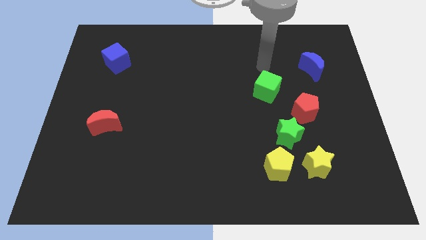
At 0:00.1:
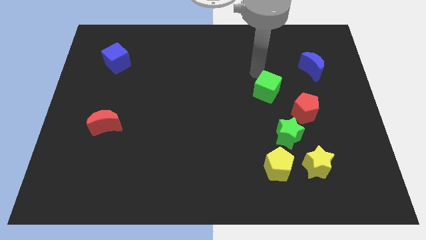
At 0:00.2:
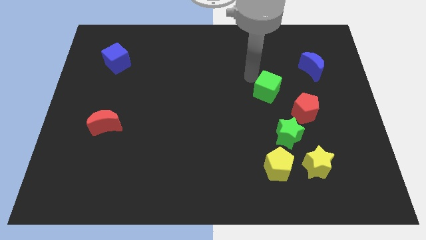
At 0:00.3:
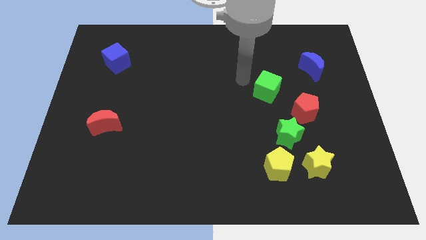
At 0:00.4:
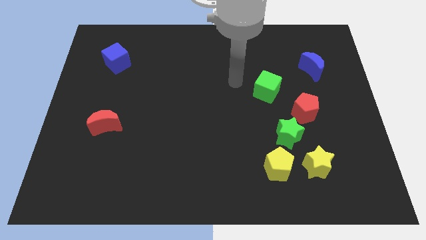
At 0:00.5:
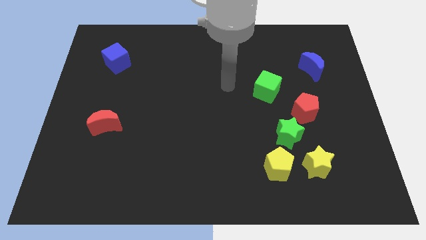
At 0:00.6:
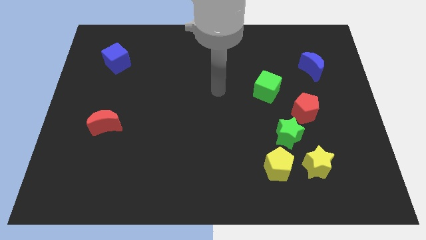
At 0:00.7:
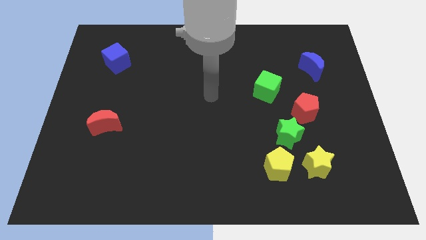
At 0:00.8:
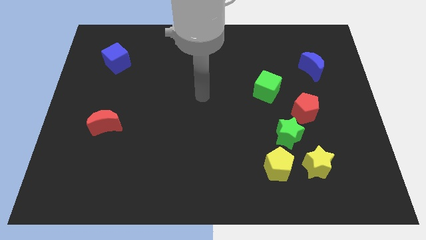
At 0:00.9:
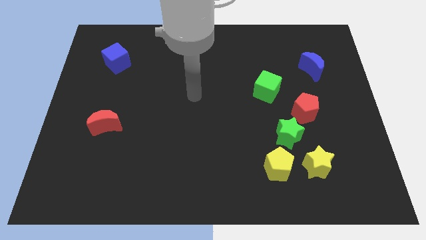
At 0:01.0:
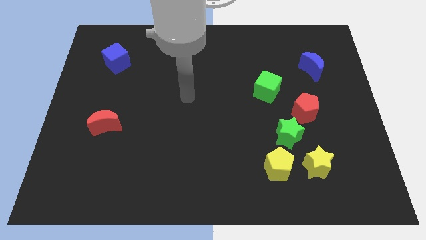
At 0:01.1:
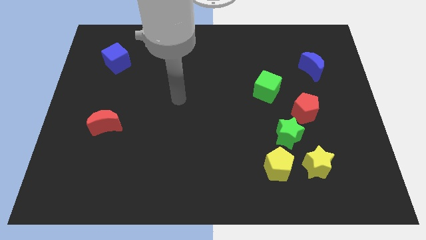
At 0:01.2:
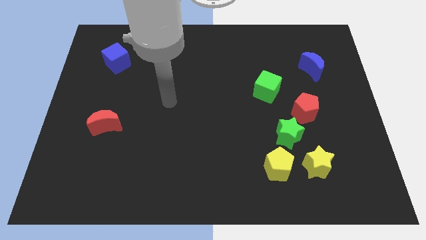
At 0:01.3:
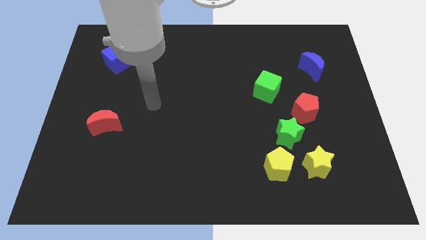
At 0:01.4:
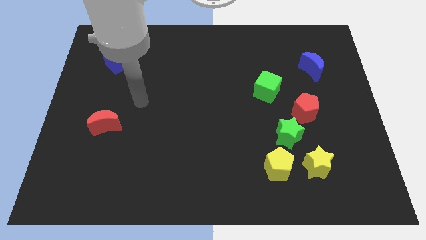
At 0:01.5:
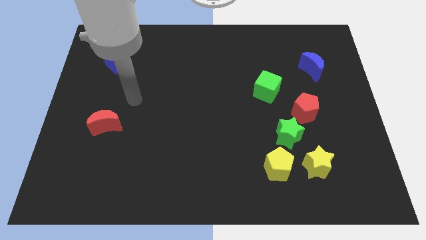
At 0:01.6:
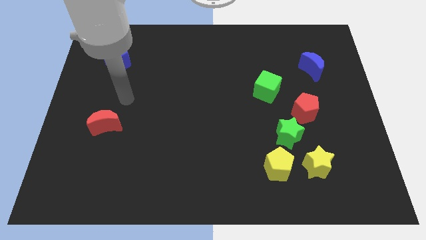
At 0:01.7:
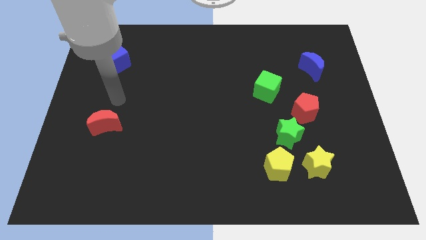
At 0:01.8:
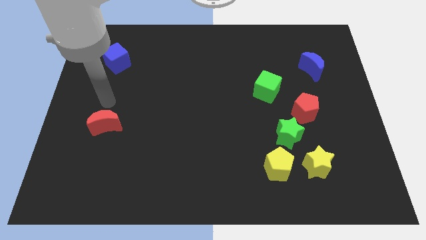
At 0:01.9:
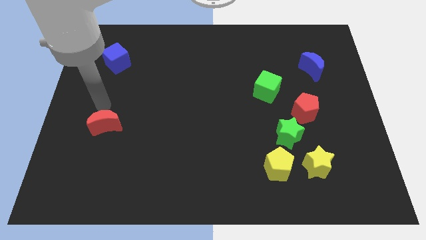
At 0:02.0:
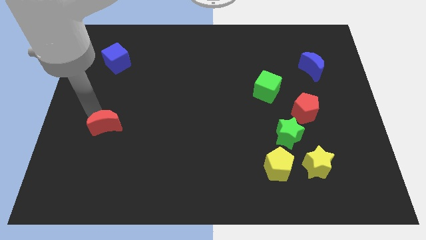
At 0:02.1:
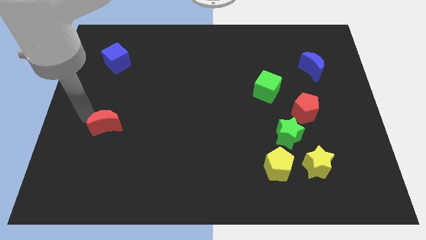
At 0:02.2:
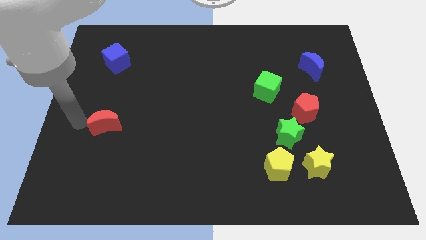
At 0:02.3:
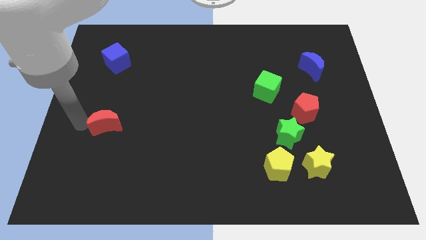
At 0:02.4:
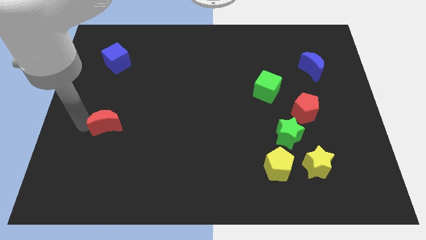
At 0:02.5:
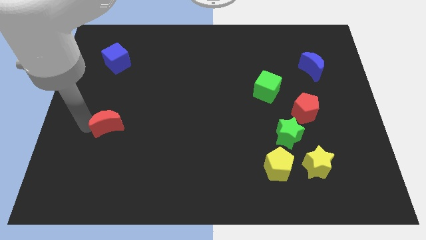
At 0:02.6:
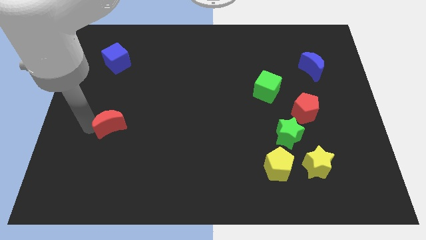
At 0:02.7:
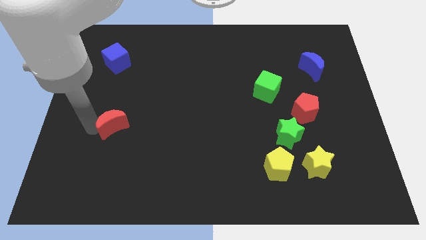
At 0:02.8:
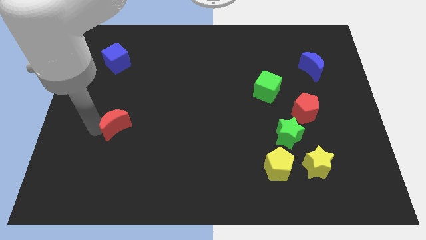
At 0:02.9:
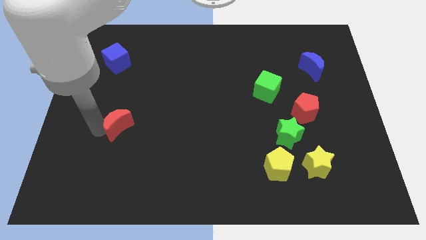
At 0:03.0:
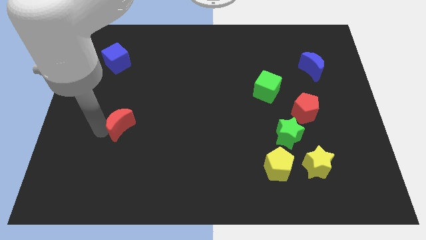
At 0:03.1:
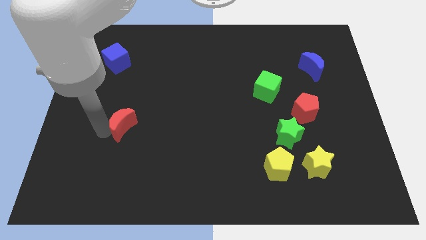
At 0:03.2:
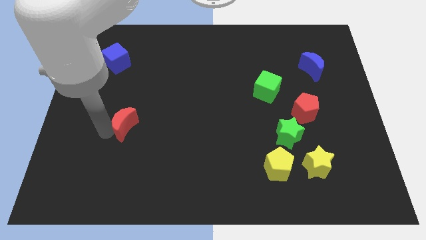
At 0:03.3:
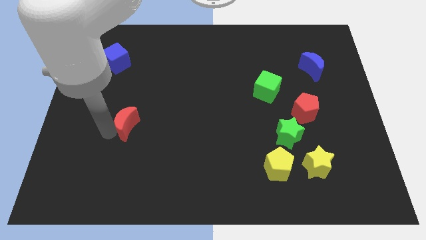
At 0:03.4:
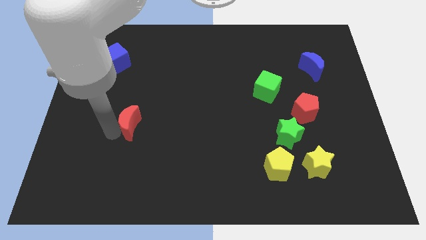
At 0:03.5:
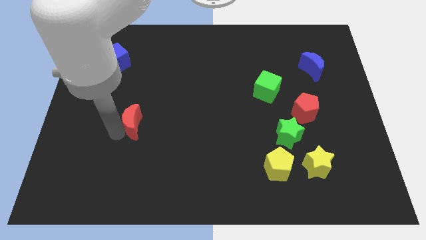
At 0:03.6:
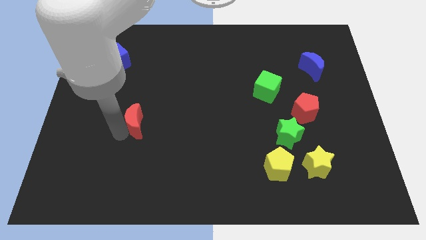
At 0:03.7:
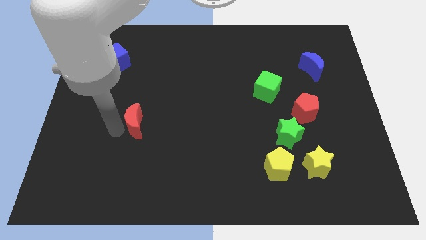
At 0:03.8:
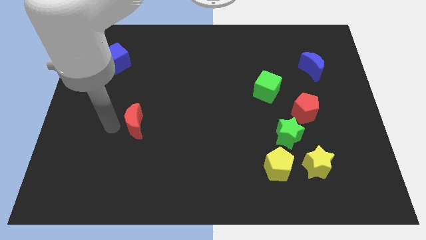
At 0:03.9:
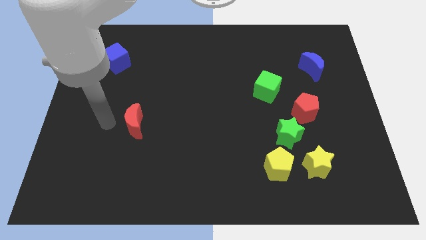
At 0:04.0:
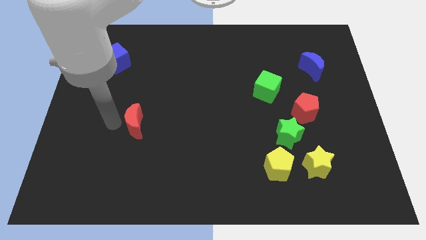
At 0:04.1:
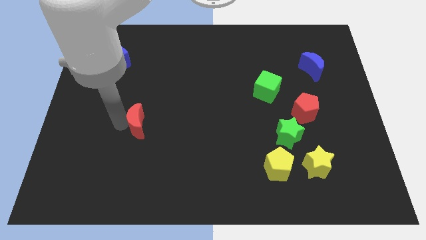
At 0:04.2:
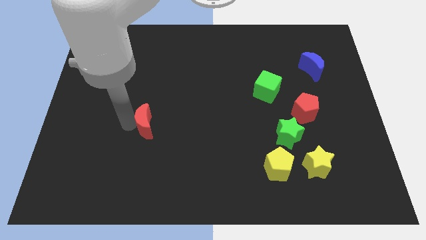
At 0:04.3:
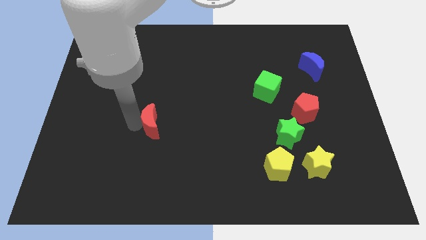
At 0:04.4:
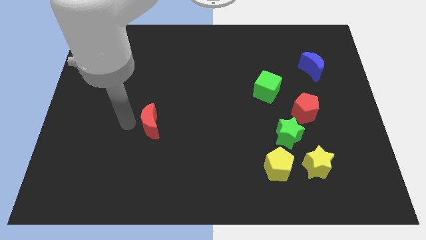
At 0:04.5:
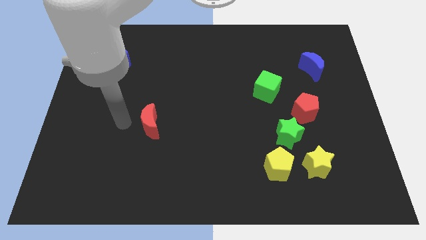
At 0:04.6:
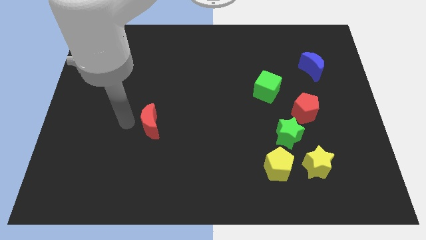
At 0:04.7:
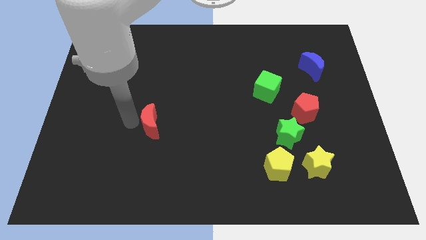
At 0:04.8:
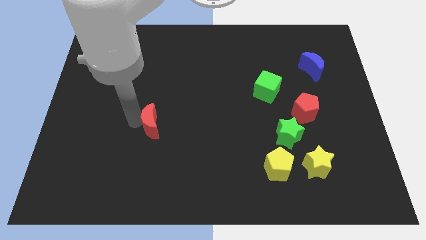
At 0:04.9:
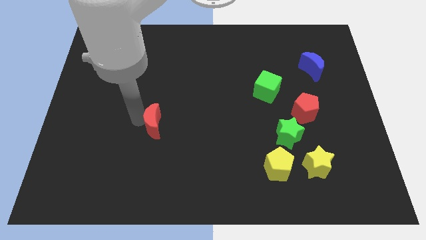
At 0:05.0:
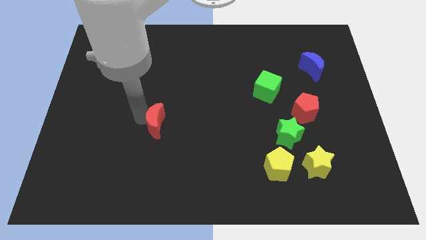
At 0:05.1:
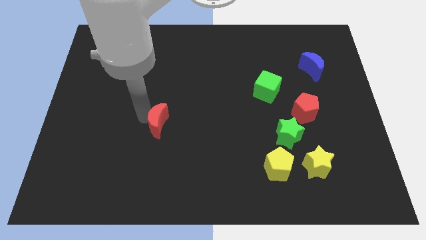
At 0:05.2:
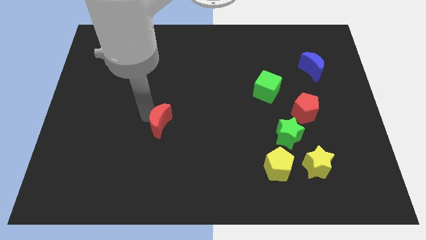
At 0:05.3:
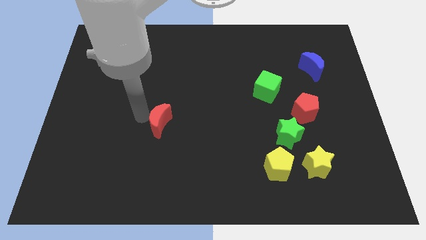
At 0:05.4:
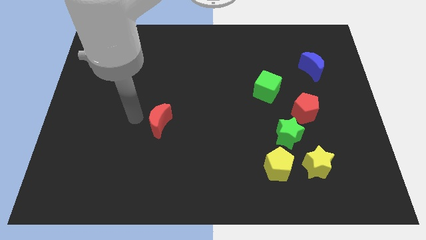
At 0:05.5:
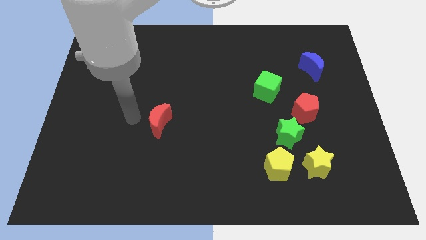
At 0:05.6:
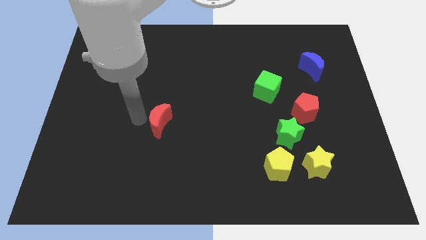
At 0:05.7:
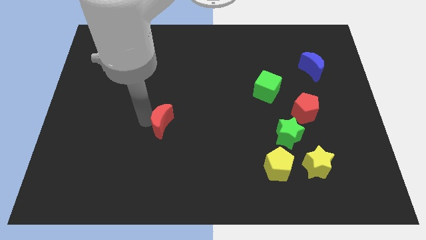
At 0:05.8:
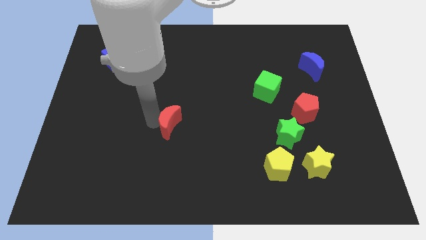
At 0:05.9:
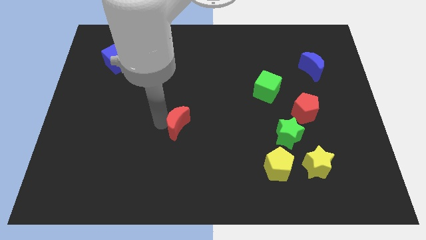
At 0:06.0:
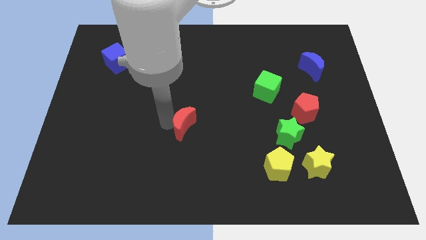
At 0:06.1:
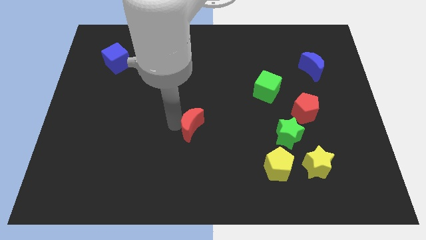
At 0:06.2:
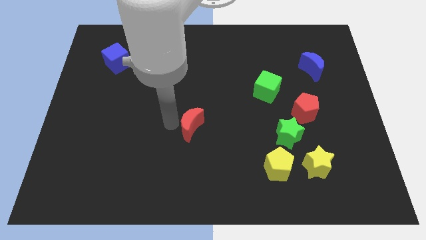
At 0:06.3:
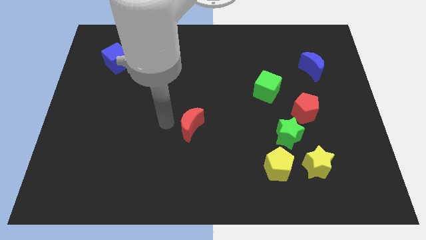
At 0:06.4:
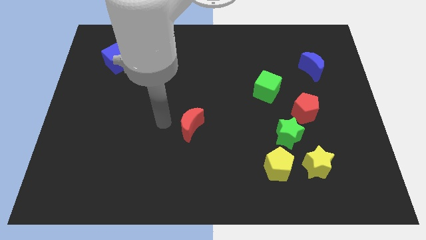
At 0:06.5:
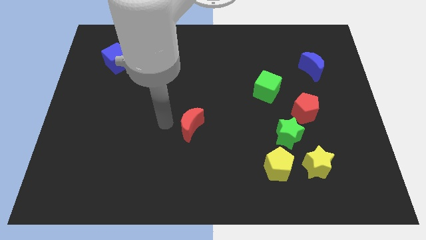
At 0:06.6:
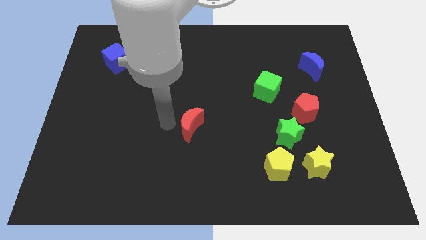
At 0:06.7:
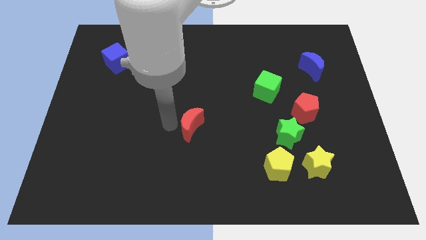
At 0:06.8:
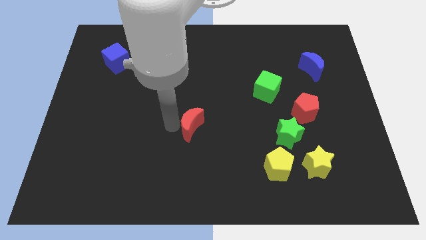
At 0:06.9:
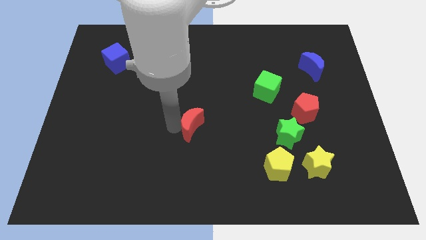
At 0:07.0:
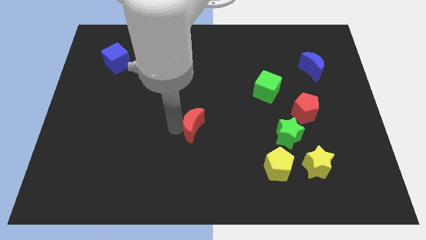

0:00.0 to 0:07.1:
slide the red moon right

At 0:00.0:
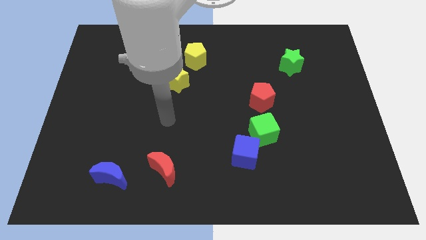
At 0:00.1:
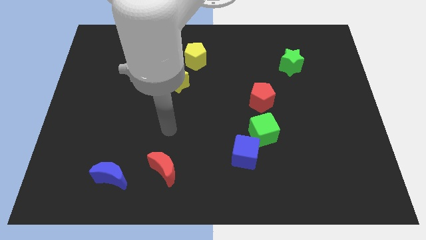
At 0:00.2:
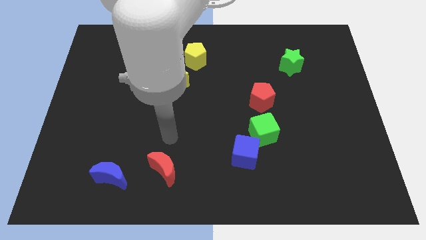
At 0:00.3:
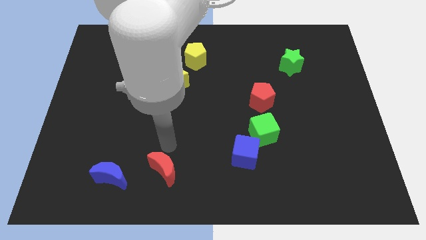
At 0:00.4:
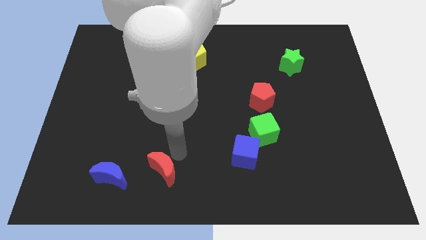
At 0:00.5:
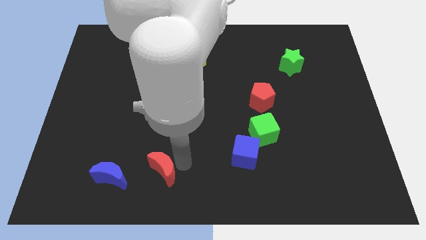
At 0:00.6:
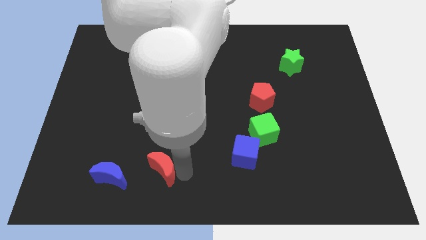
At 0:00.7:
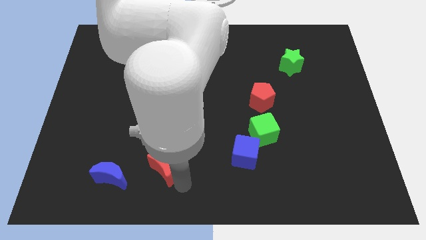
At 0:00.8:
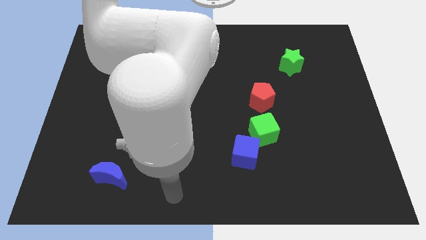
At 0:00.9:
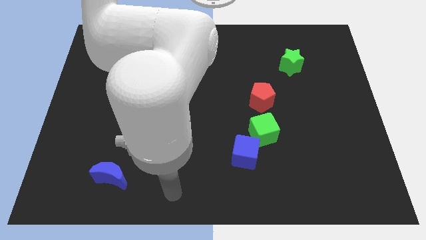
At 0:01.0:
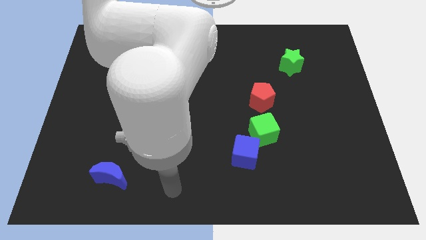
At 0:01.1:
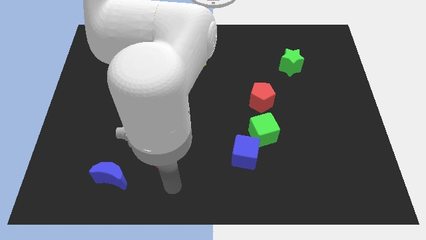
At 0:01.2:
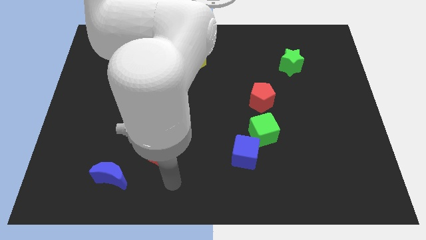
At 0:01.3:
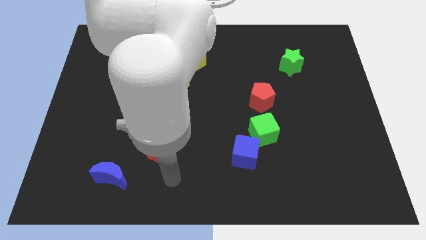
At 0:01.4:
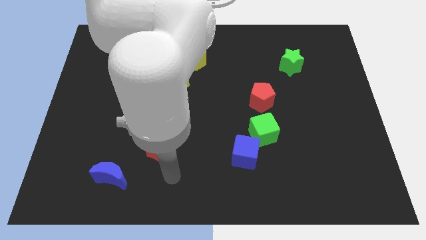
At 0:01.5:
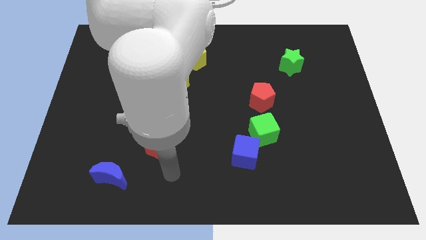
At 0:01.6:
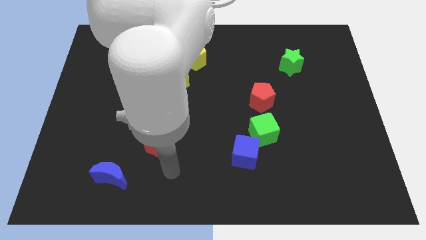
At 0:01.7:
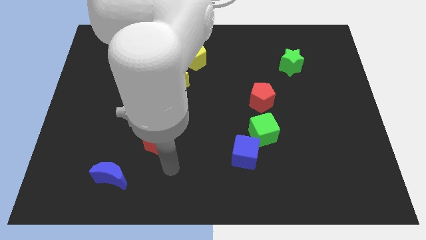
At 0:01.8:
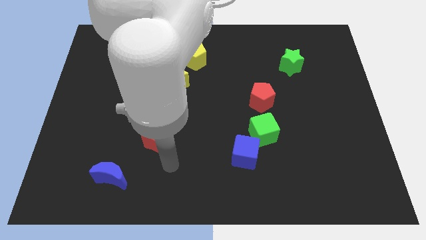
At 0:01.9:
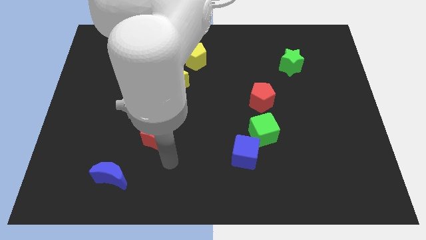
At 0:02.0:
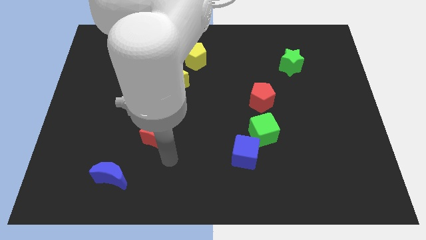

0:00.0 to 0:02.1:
slightly slide the red moon up
